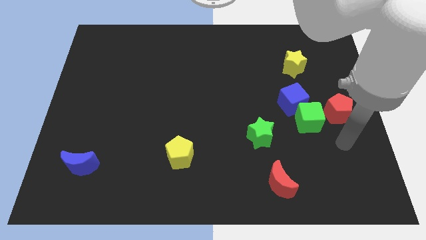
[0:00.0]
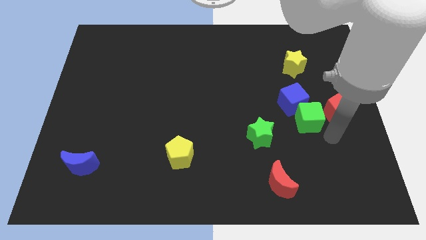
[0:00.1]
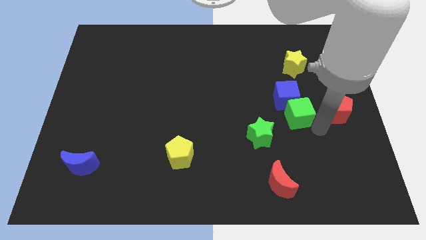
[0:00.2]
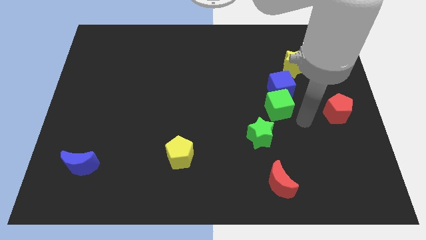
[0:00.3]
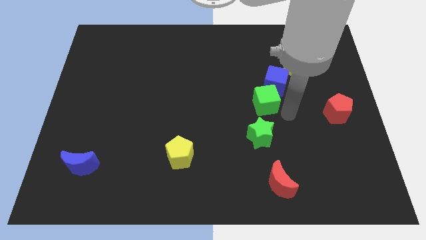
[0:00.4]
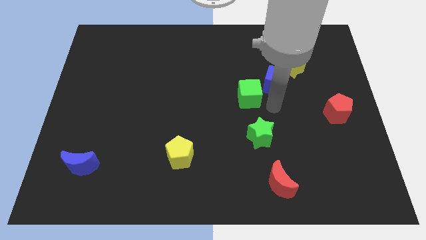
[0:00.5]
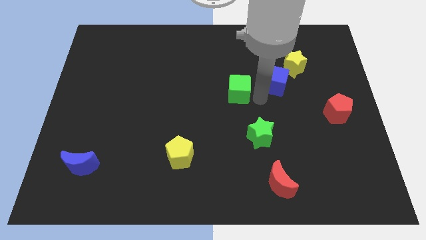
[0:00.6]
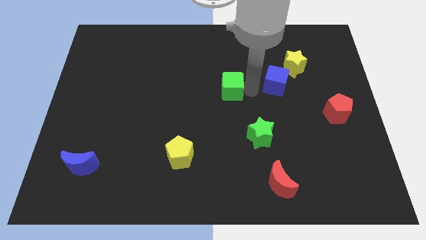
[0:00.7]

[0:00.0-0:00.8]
move the blue cube away from the green cube

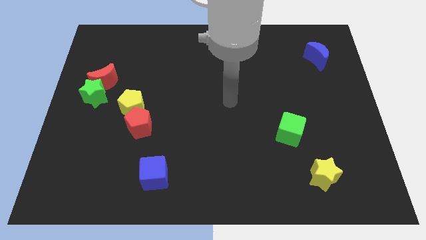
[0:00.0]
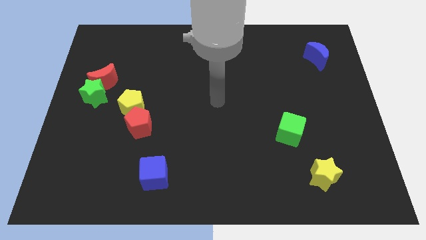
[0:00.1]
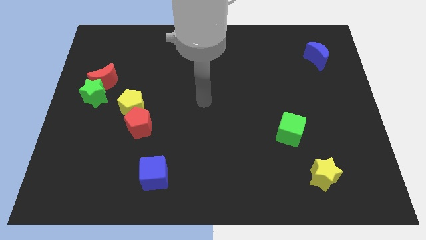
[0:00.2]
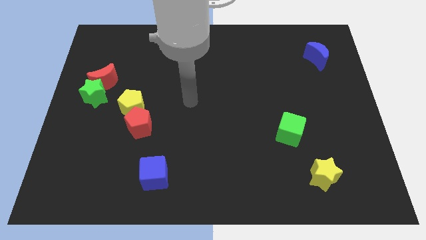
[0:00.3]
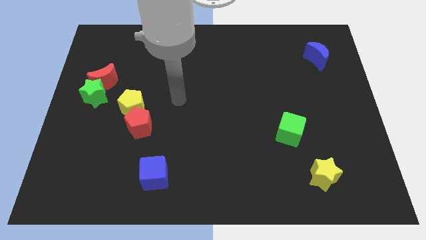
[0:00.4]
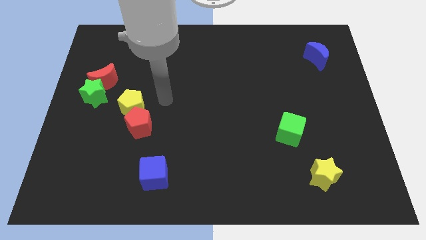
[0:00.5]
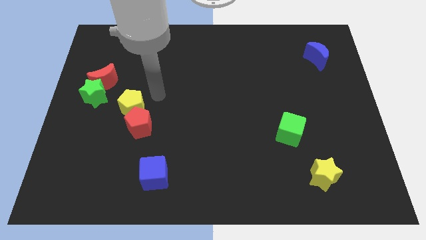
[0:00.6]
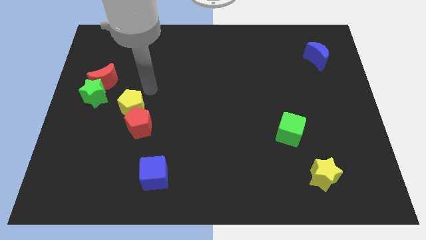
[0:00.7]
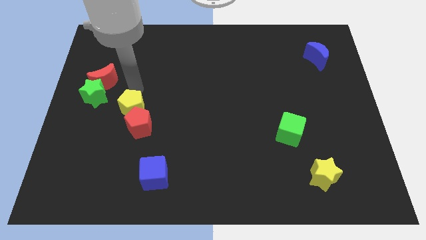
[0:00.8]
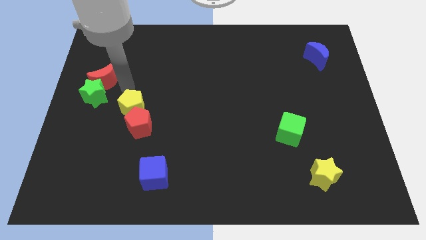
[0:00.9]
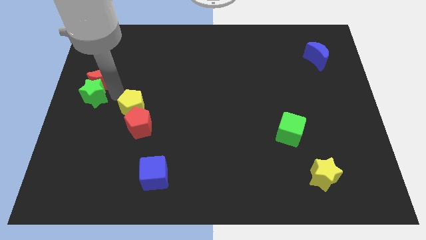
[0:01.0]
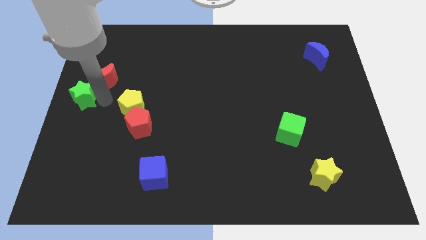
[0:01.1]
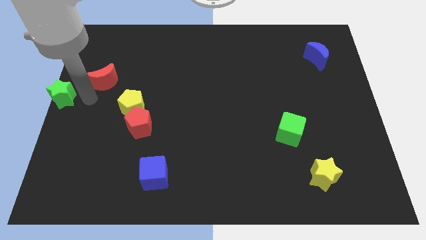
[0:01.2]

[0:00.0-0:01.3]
move the red moon away from the green star

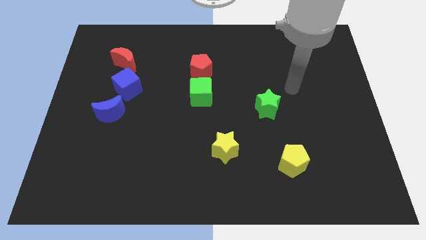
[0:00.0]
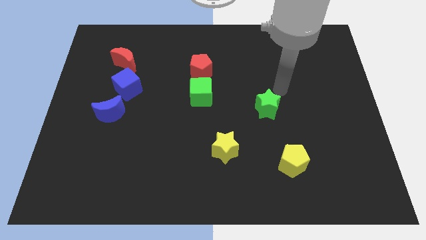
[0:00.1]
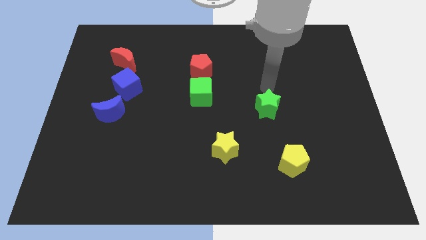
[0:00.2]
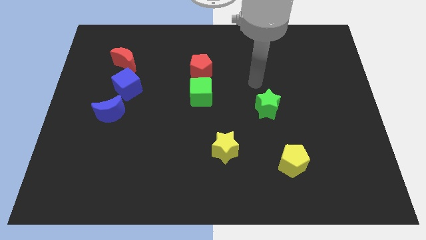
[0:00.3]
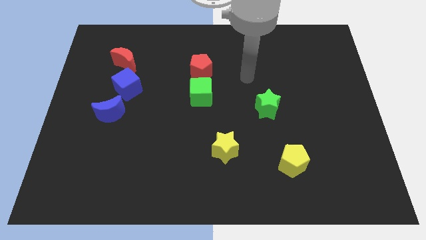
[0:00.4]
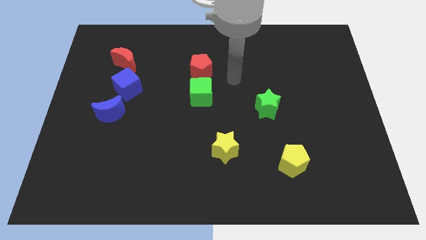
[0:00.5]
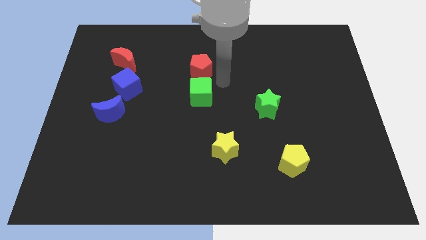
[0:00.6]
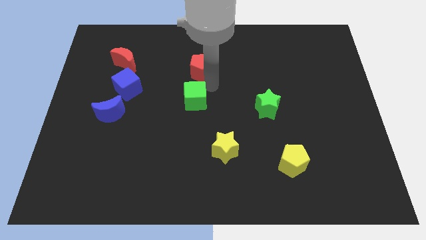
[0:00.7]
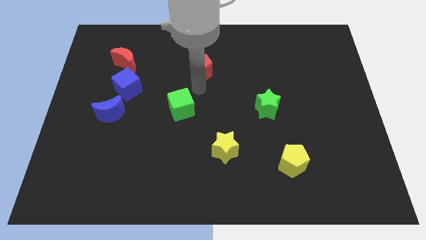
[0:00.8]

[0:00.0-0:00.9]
pull the red pentagon apart from the green cube

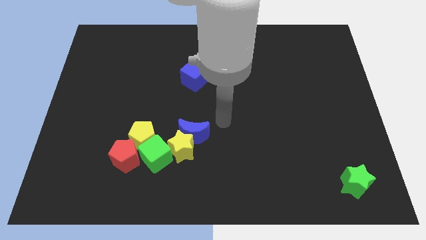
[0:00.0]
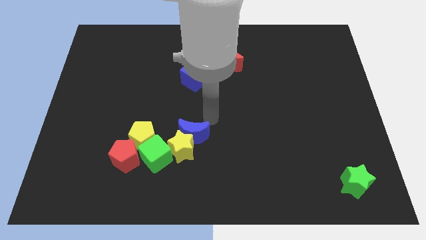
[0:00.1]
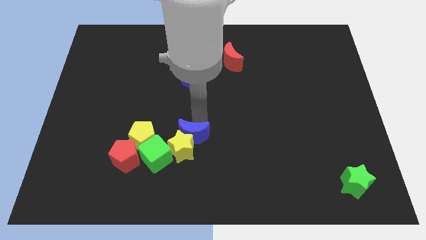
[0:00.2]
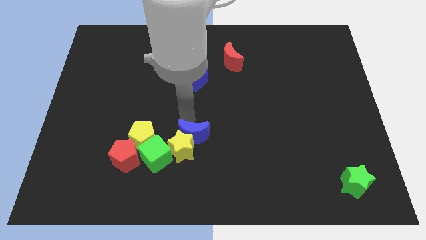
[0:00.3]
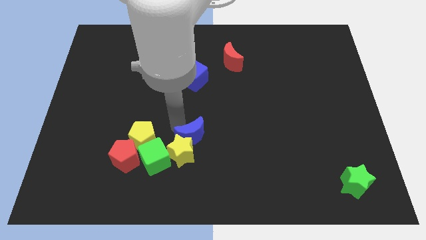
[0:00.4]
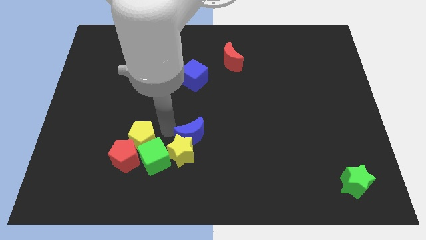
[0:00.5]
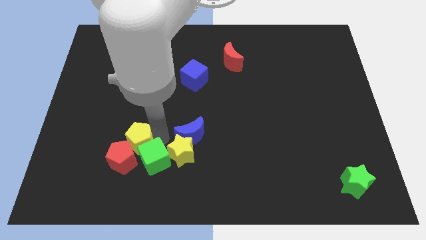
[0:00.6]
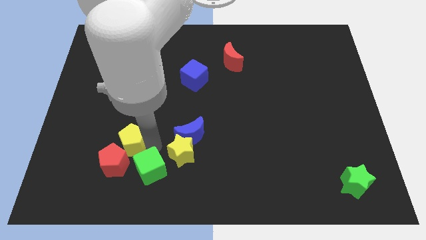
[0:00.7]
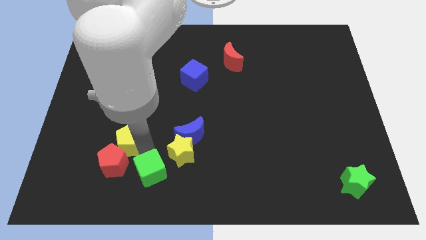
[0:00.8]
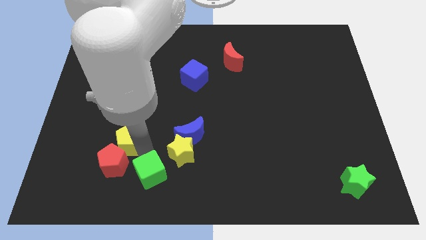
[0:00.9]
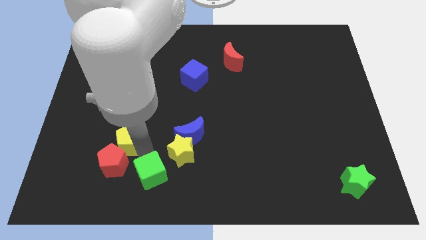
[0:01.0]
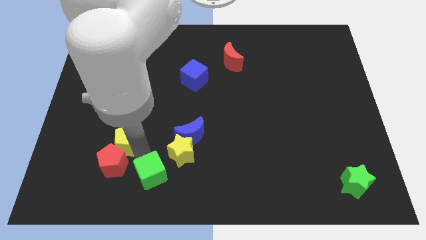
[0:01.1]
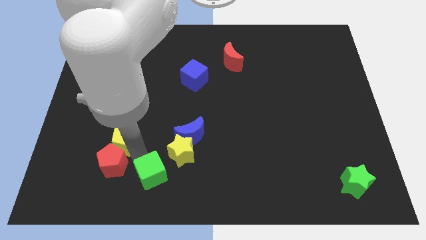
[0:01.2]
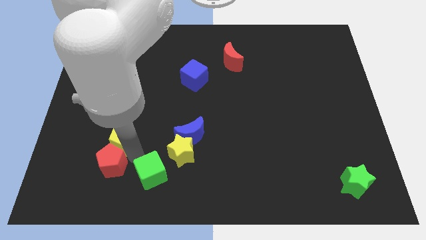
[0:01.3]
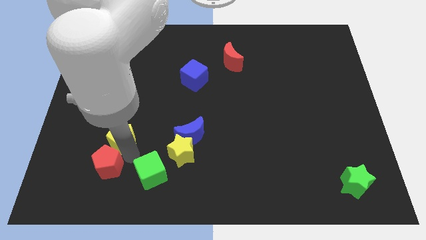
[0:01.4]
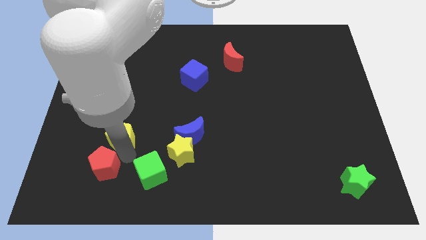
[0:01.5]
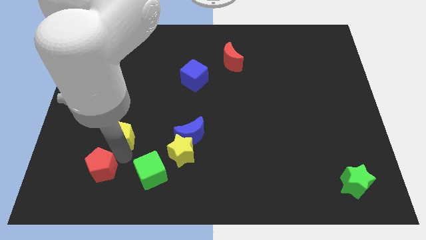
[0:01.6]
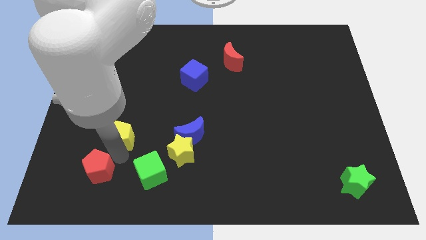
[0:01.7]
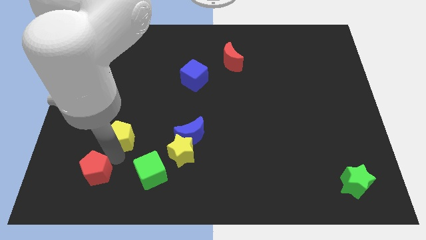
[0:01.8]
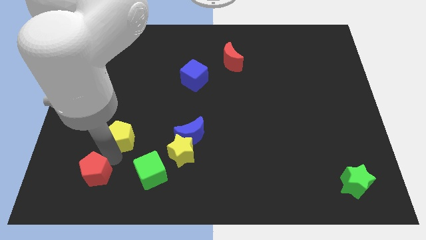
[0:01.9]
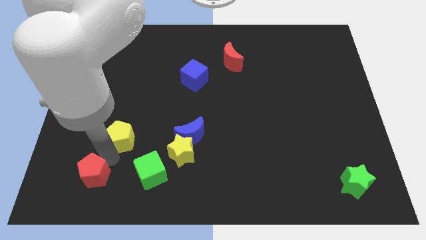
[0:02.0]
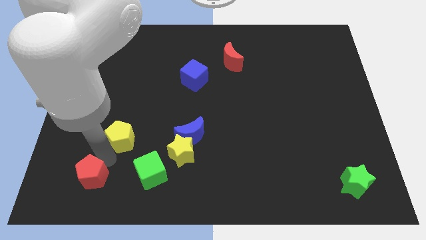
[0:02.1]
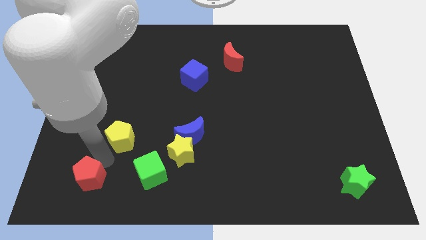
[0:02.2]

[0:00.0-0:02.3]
move the red pentagon away from the yellow pentagon and green cube

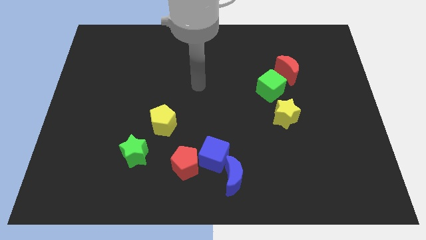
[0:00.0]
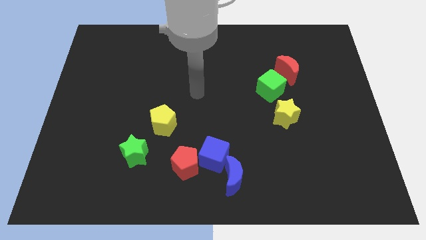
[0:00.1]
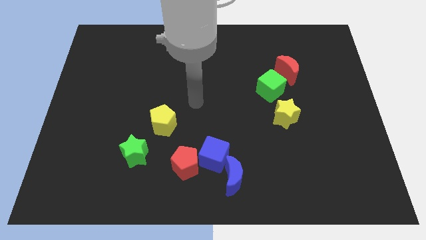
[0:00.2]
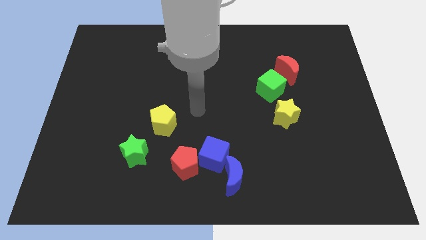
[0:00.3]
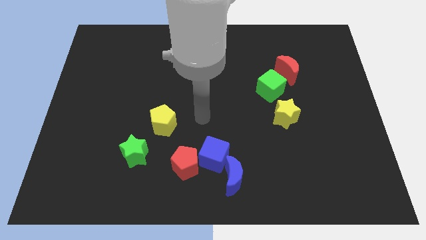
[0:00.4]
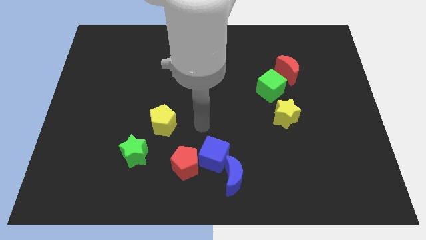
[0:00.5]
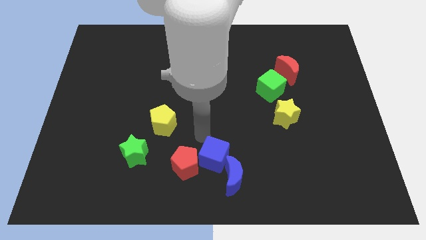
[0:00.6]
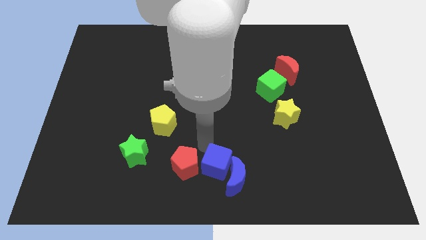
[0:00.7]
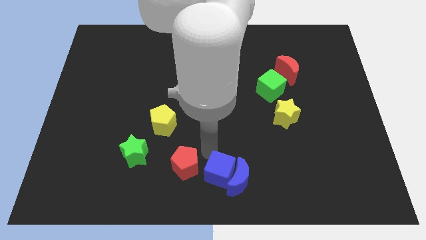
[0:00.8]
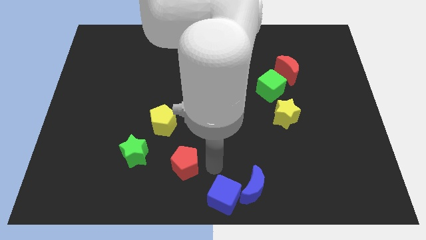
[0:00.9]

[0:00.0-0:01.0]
separate the red pentagon from the blue cube

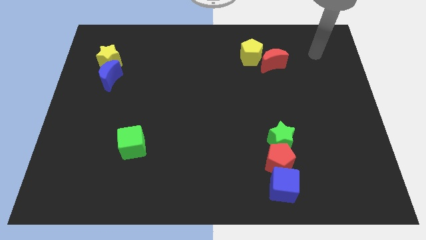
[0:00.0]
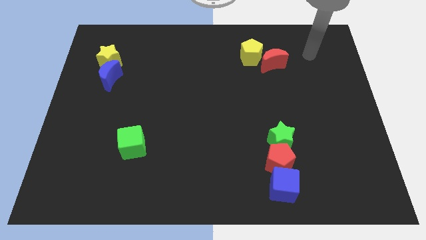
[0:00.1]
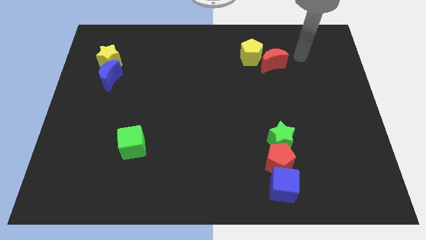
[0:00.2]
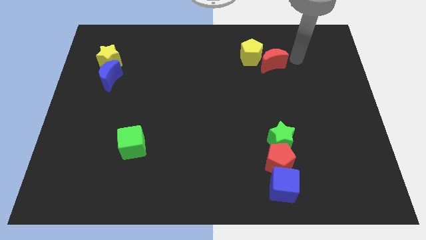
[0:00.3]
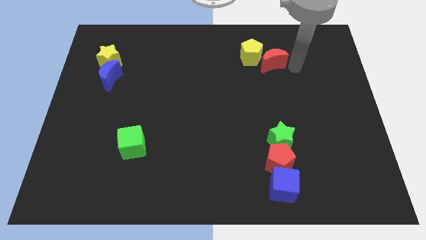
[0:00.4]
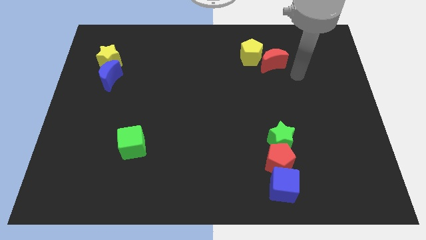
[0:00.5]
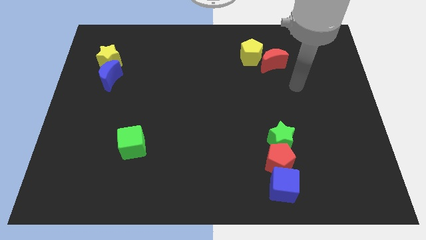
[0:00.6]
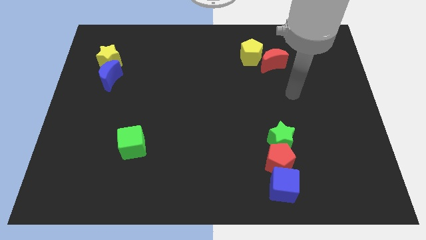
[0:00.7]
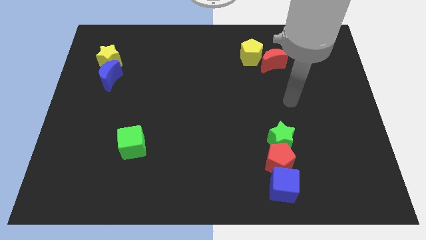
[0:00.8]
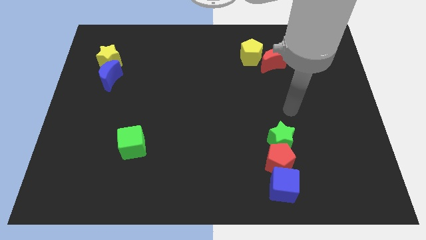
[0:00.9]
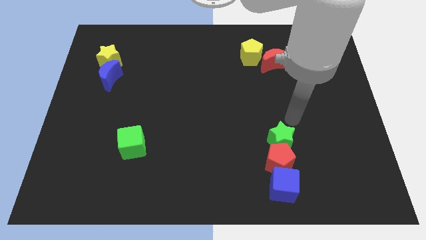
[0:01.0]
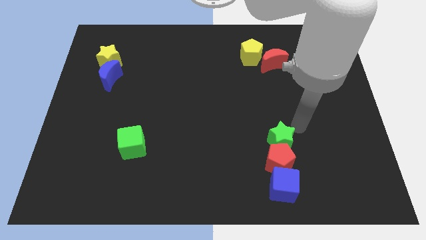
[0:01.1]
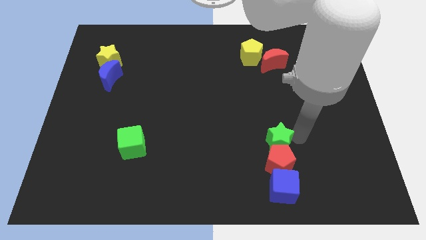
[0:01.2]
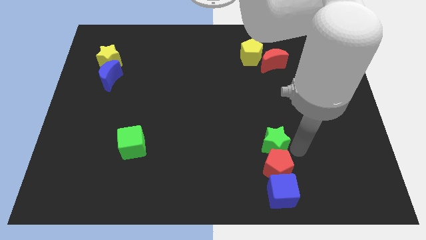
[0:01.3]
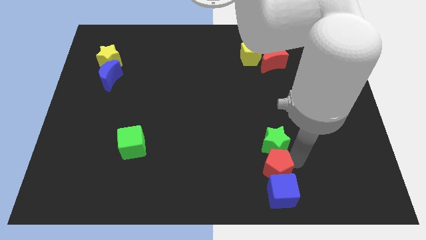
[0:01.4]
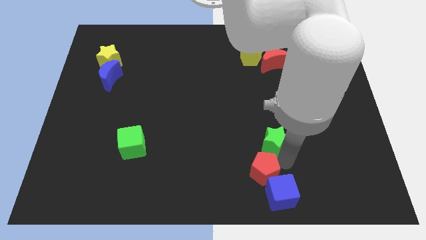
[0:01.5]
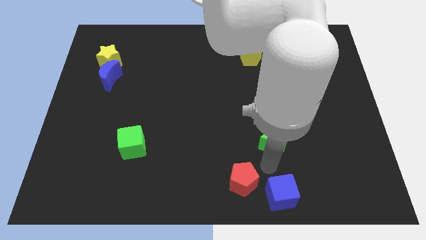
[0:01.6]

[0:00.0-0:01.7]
move the green star away from the red pentagon

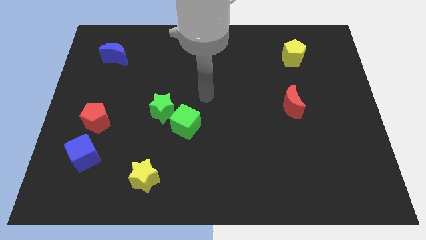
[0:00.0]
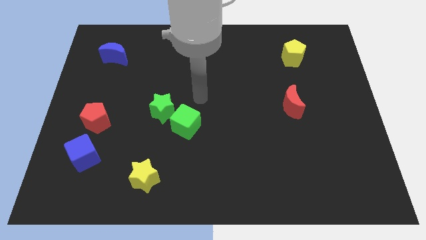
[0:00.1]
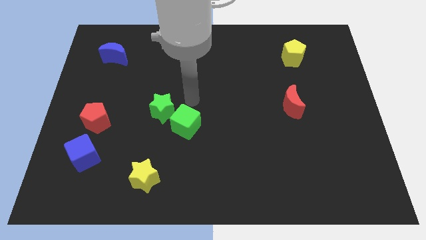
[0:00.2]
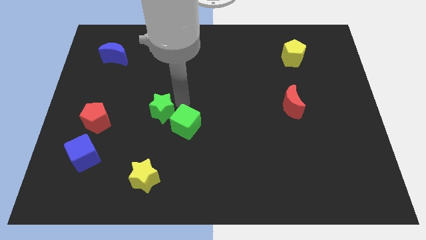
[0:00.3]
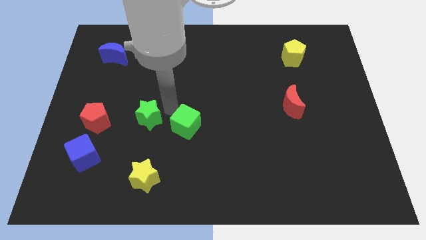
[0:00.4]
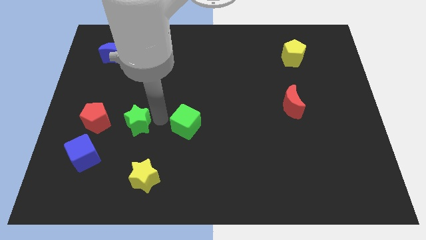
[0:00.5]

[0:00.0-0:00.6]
move the green cube away from the green star

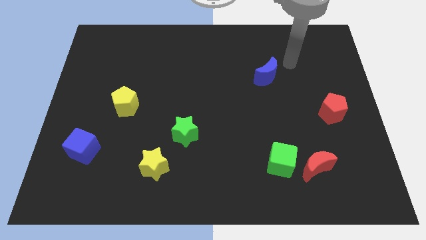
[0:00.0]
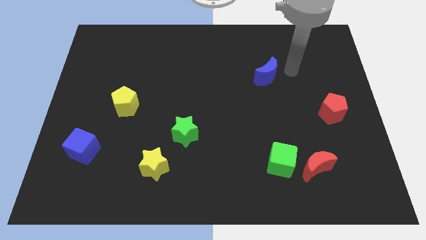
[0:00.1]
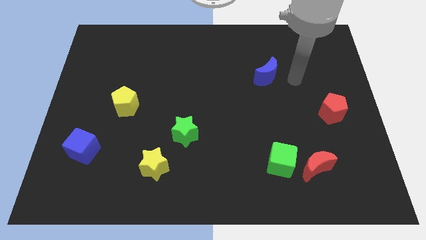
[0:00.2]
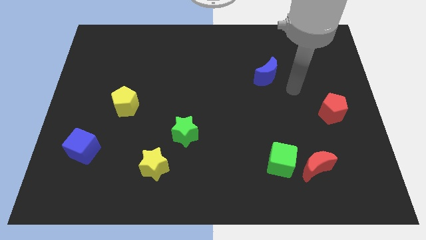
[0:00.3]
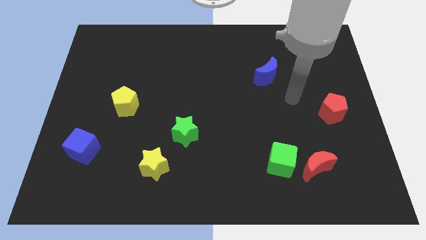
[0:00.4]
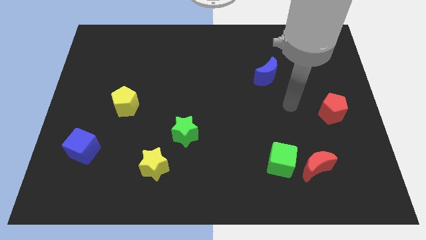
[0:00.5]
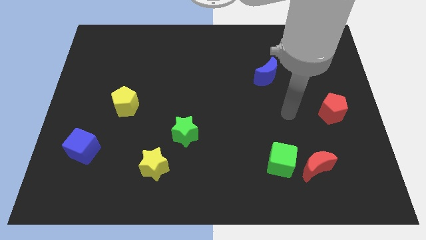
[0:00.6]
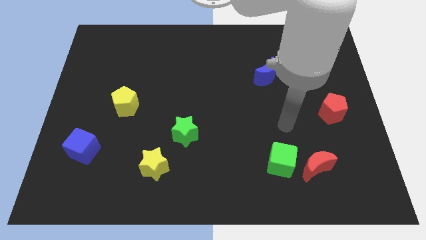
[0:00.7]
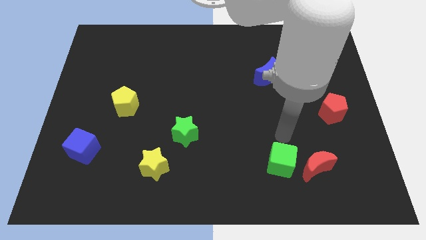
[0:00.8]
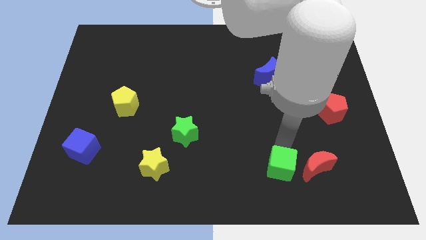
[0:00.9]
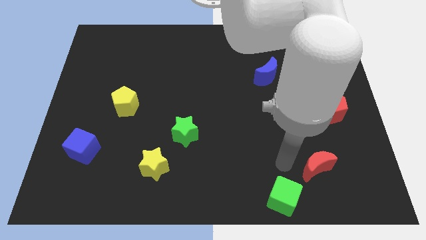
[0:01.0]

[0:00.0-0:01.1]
move the red moon away from the green cube
